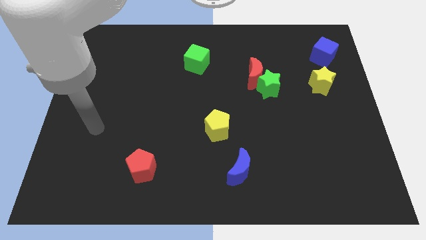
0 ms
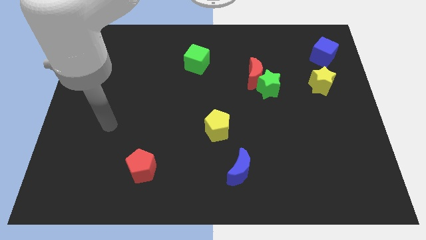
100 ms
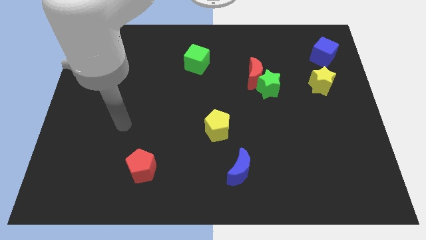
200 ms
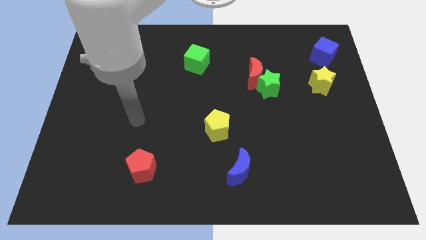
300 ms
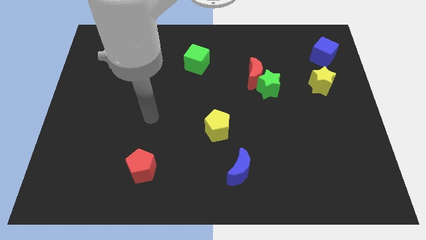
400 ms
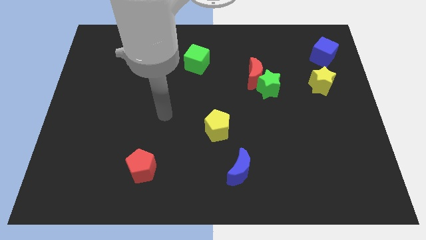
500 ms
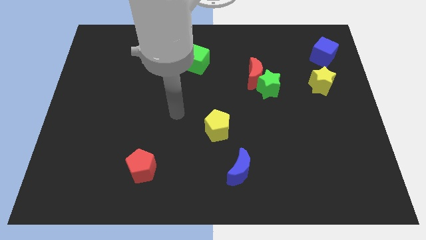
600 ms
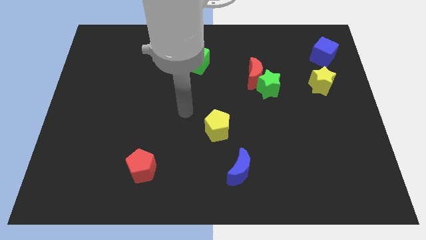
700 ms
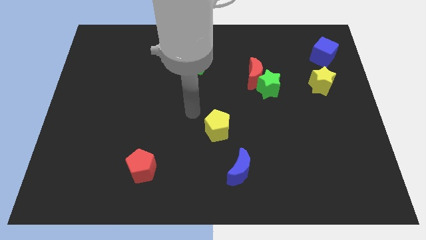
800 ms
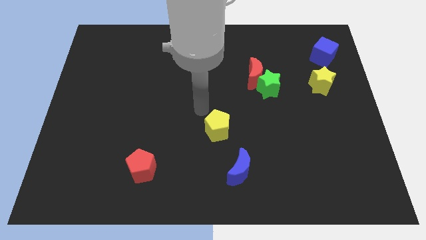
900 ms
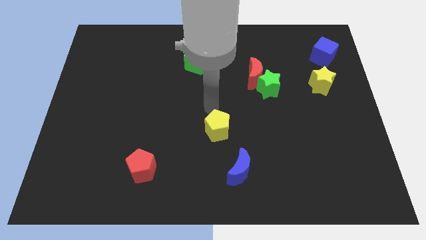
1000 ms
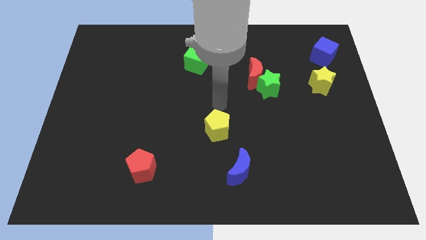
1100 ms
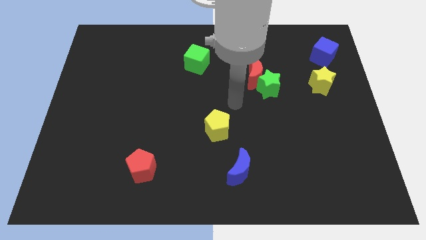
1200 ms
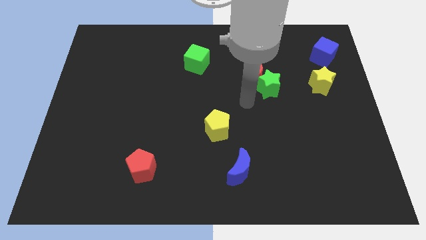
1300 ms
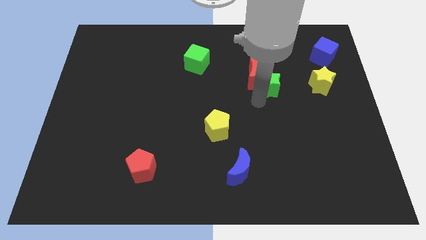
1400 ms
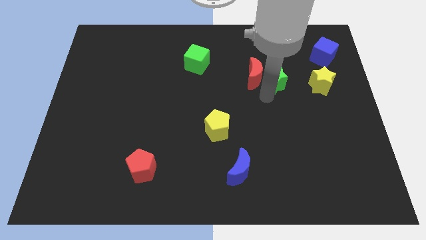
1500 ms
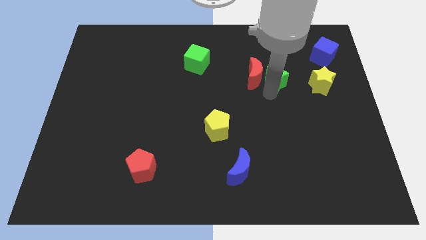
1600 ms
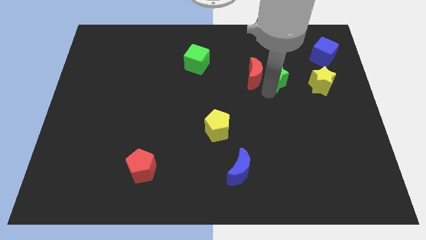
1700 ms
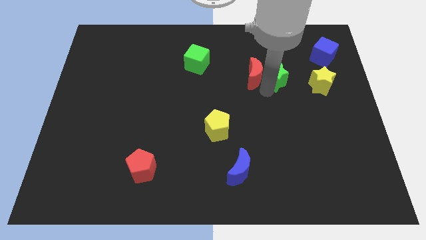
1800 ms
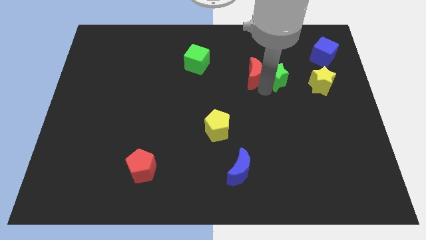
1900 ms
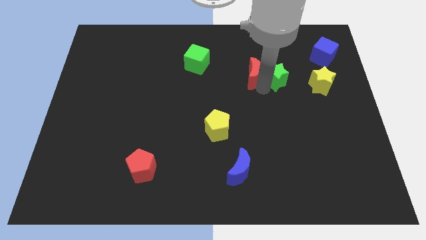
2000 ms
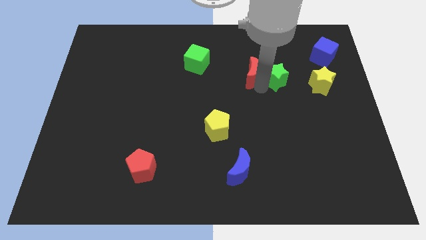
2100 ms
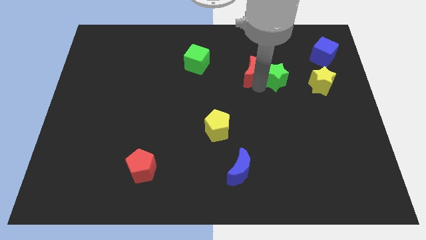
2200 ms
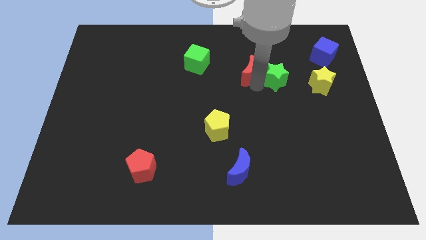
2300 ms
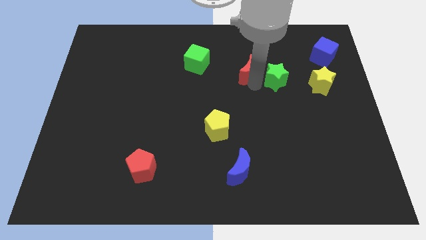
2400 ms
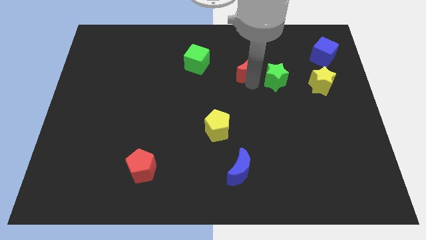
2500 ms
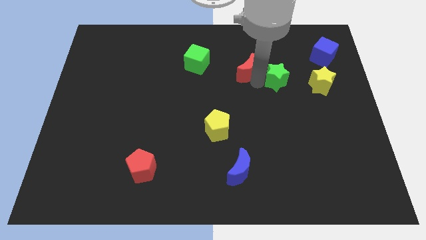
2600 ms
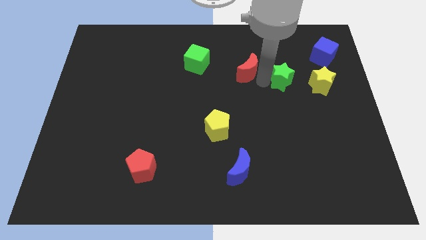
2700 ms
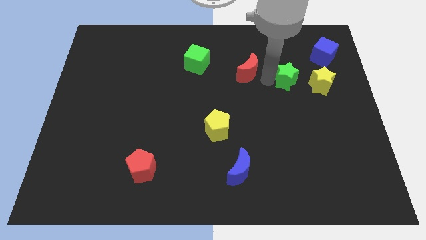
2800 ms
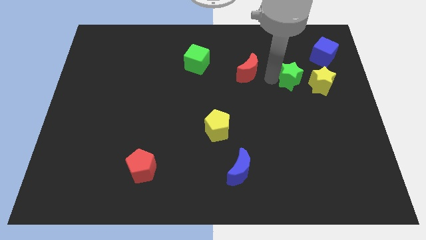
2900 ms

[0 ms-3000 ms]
move the red moon away from the green star

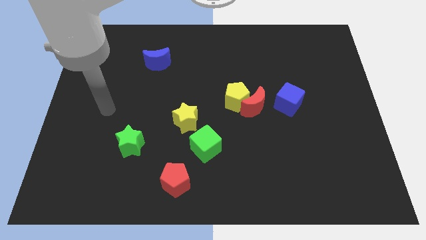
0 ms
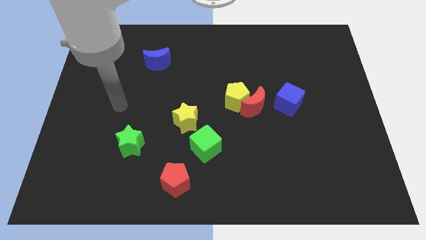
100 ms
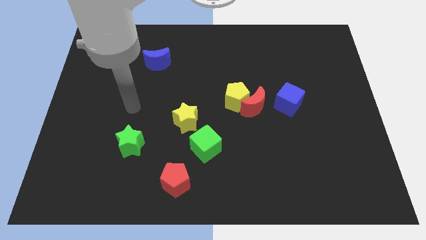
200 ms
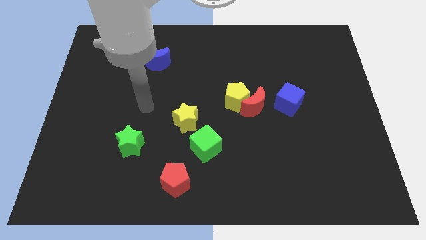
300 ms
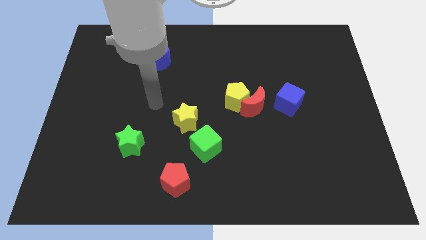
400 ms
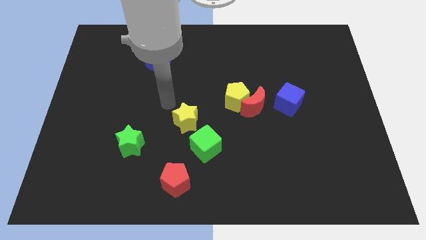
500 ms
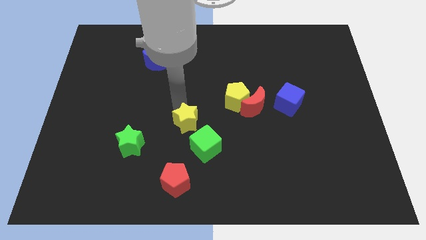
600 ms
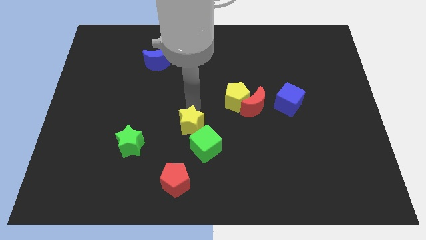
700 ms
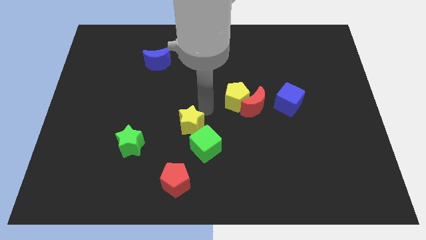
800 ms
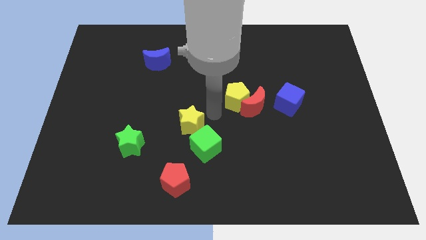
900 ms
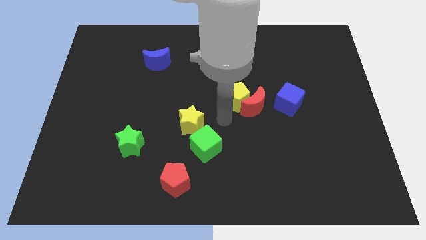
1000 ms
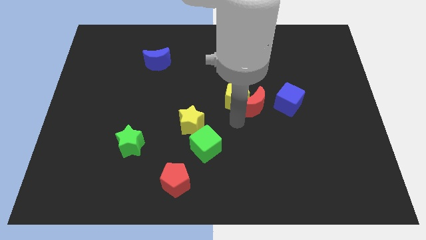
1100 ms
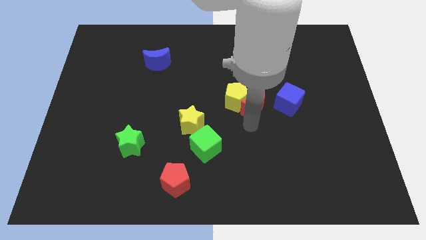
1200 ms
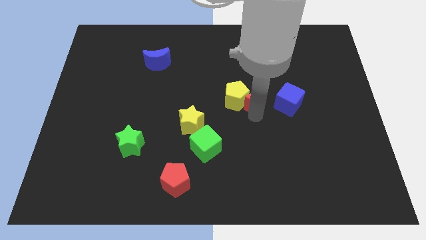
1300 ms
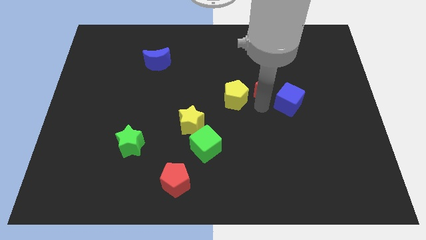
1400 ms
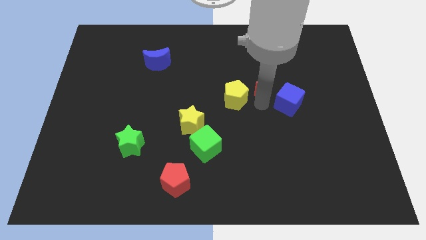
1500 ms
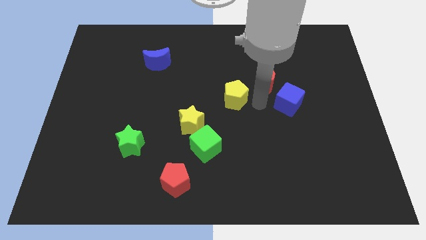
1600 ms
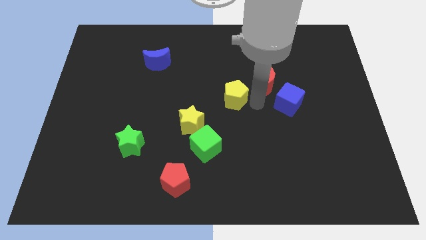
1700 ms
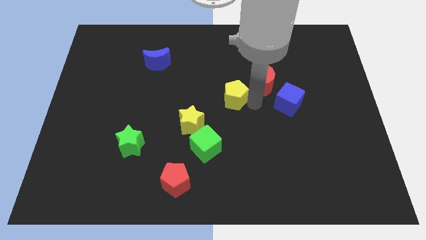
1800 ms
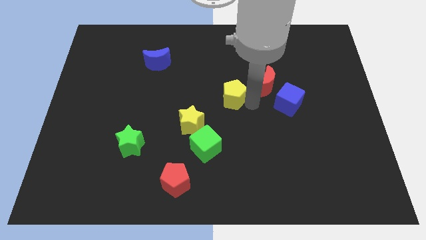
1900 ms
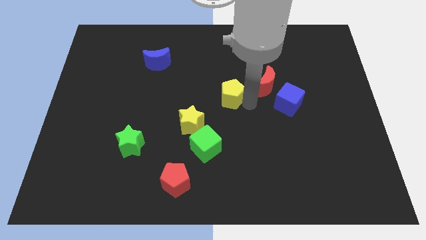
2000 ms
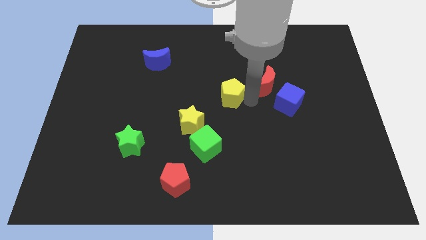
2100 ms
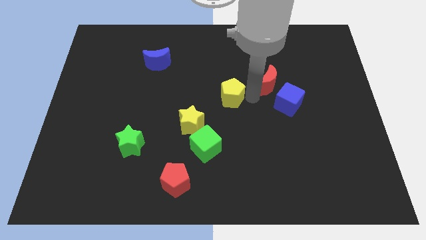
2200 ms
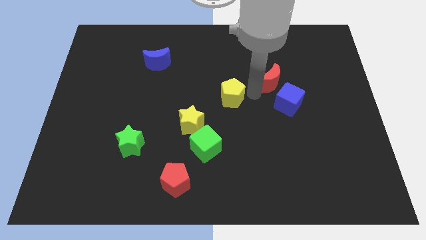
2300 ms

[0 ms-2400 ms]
pull the yellow pentagon apart from the red moon

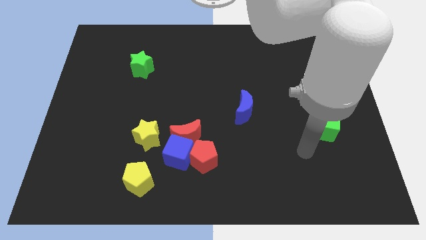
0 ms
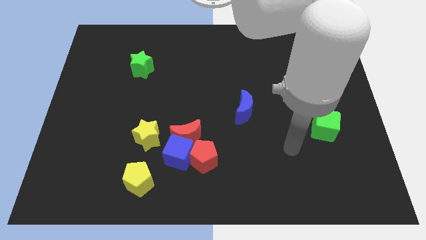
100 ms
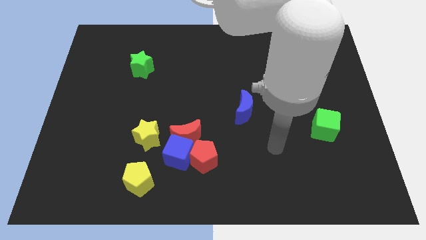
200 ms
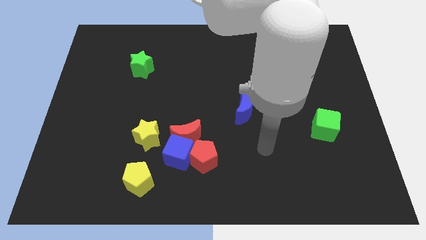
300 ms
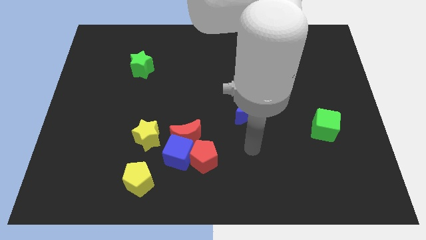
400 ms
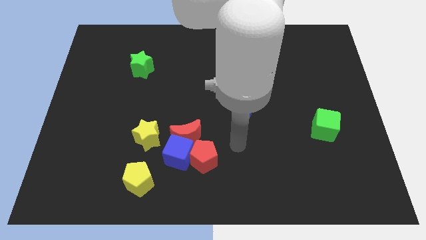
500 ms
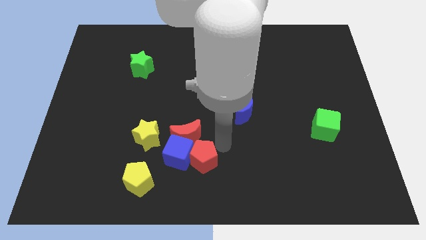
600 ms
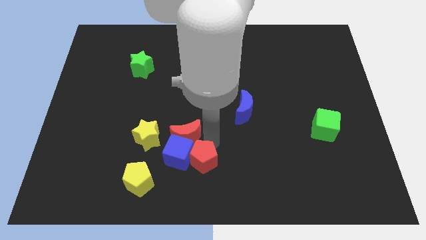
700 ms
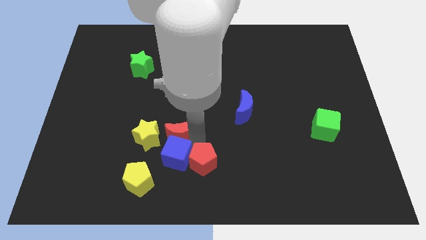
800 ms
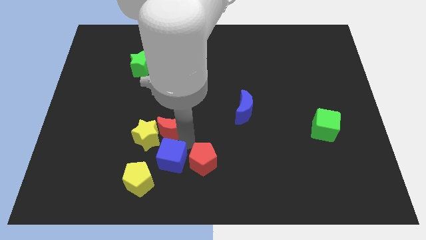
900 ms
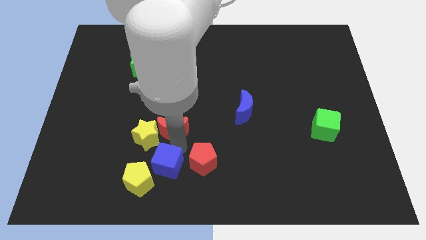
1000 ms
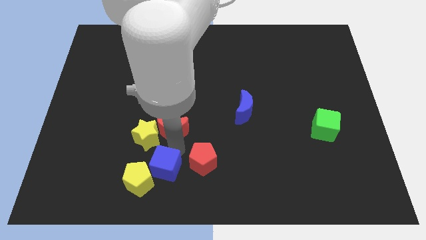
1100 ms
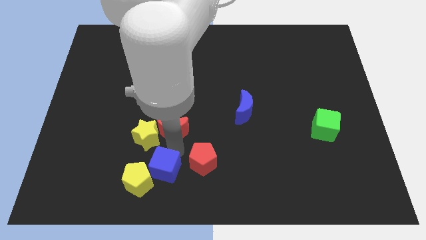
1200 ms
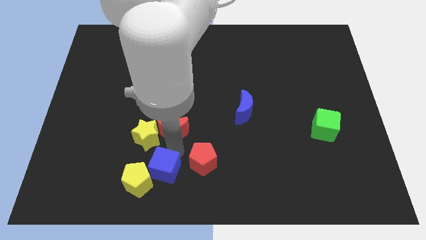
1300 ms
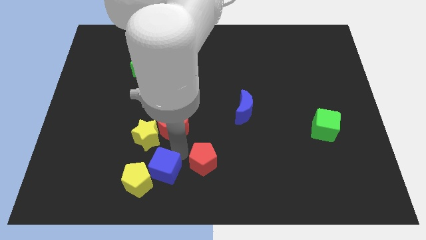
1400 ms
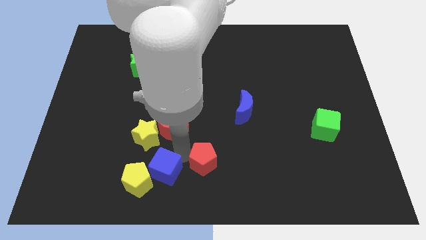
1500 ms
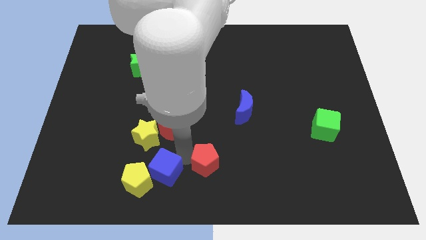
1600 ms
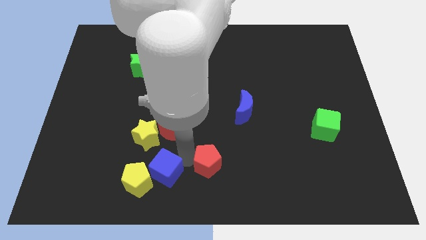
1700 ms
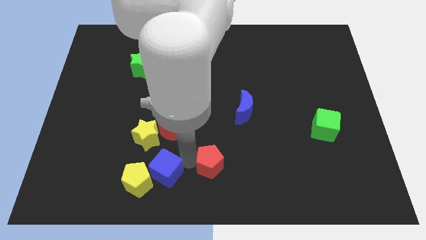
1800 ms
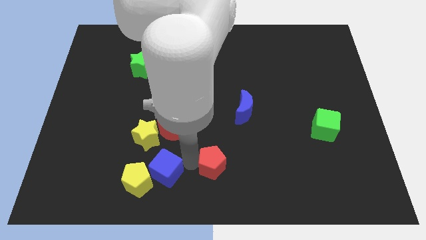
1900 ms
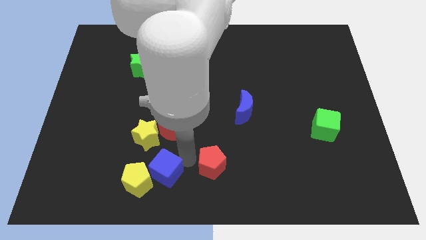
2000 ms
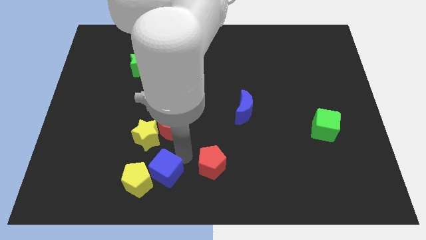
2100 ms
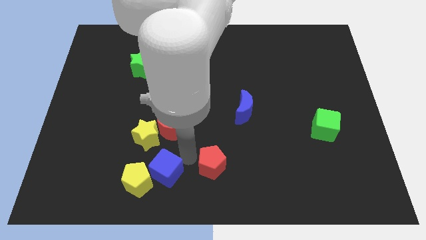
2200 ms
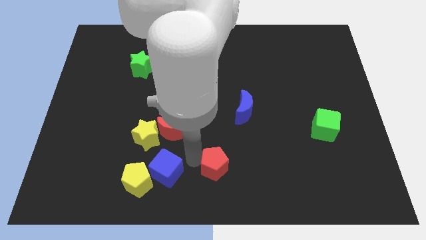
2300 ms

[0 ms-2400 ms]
separate the red pentagon from the blue cube and red moon

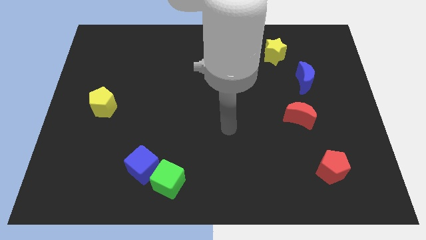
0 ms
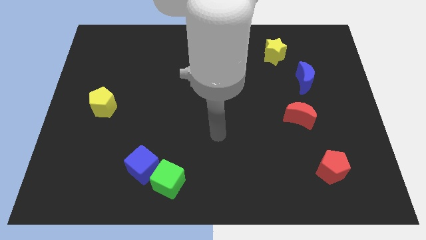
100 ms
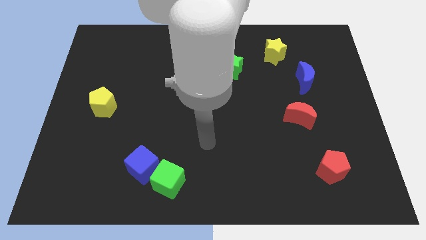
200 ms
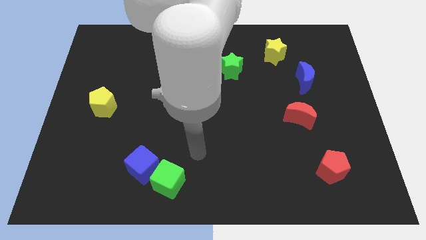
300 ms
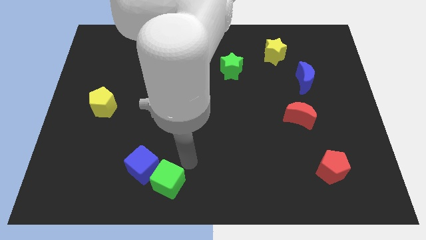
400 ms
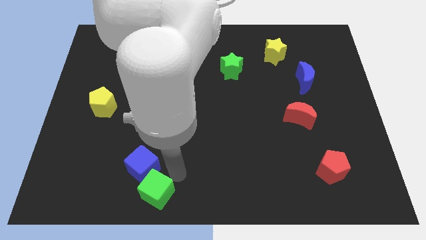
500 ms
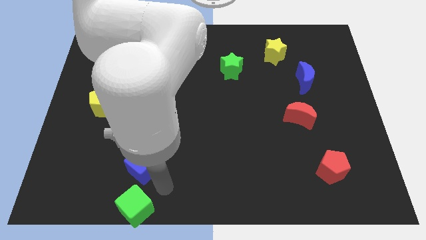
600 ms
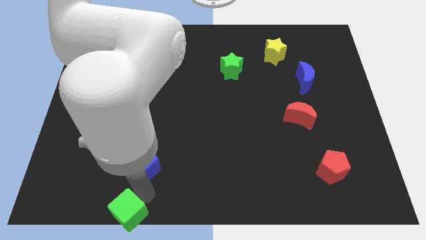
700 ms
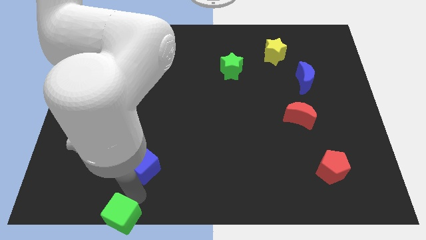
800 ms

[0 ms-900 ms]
separate the blue cube from the green cube

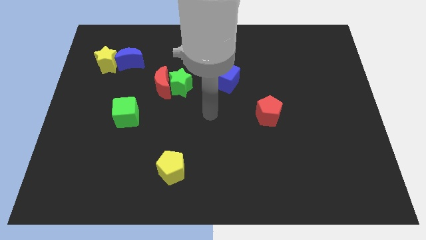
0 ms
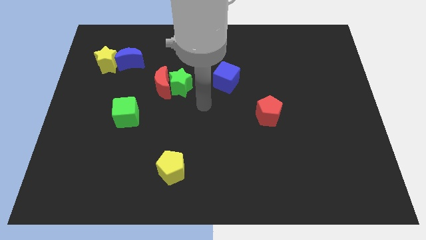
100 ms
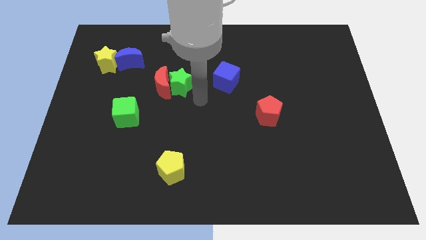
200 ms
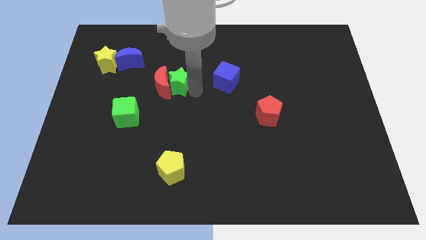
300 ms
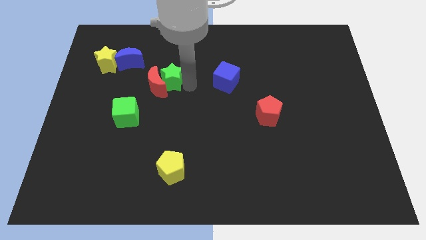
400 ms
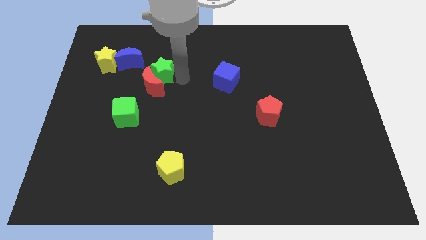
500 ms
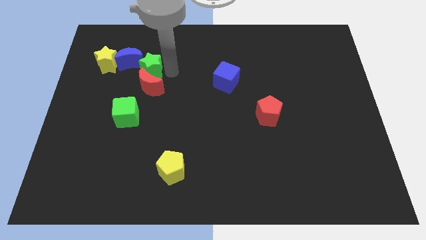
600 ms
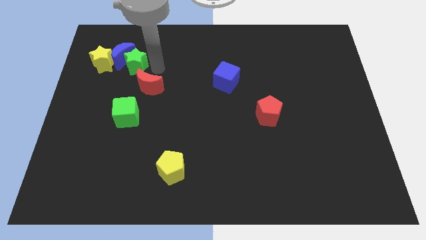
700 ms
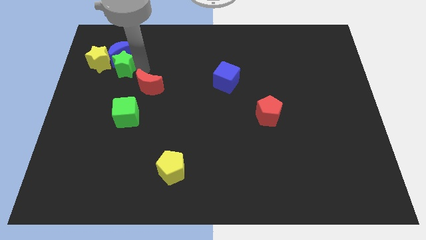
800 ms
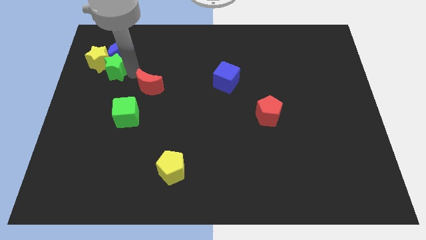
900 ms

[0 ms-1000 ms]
separate the red moon from the green star
